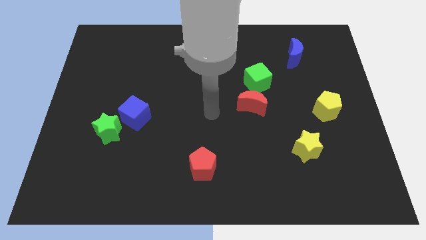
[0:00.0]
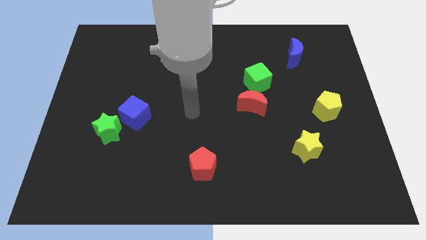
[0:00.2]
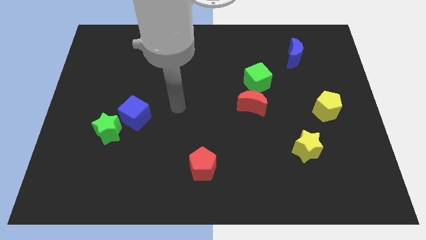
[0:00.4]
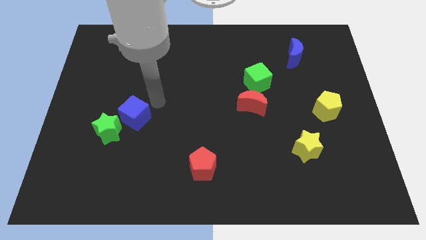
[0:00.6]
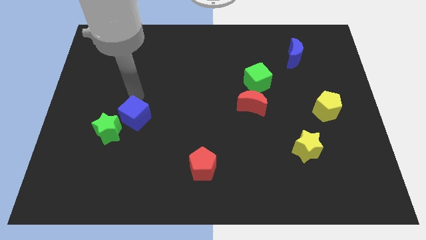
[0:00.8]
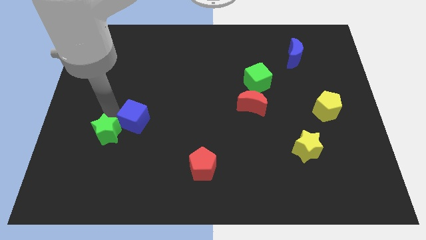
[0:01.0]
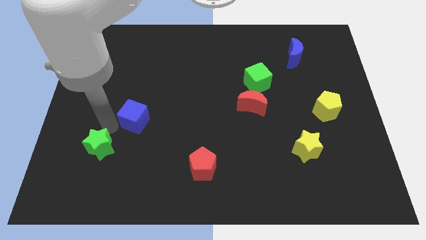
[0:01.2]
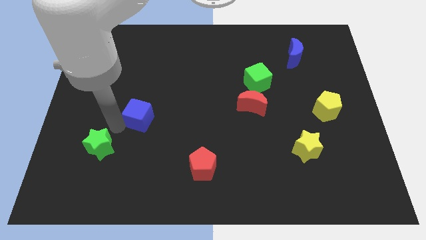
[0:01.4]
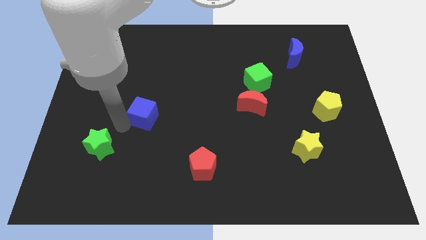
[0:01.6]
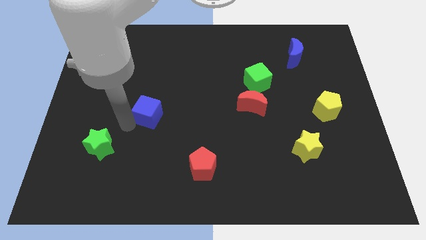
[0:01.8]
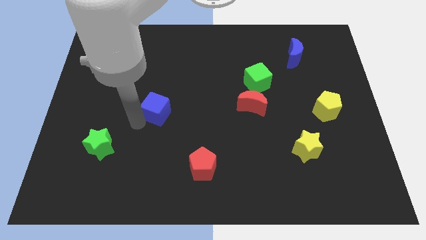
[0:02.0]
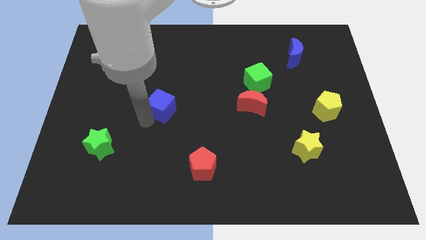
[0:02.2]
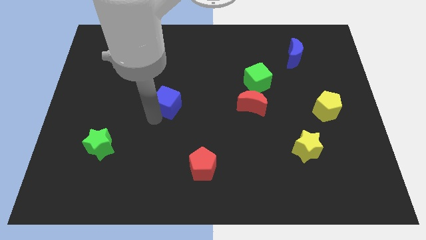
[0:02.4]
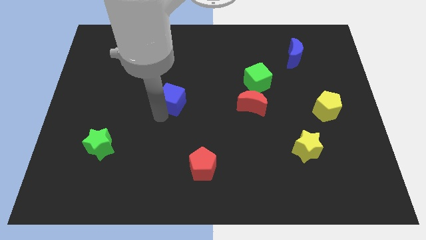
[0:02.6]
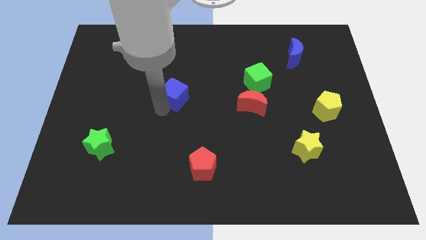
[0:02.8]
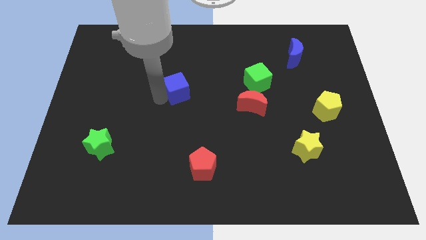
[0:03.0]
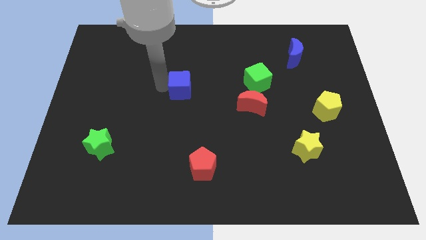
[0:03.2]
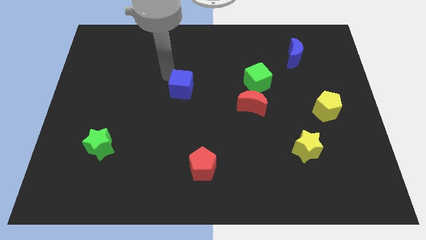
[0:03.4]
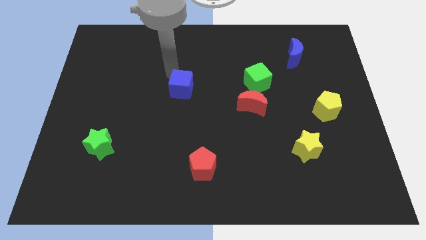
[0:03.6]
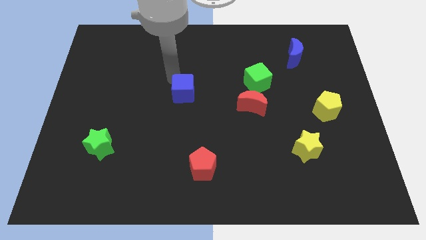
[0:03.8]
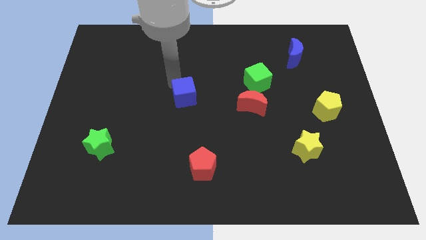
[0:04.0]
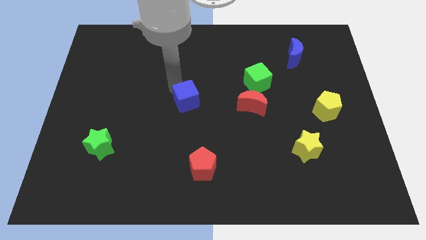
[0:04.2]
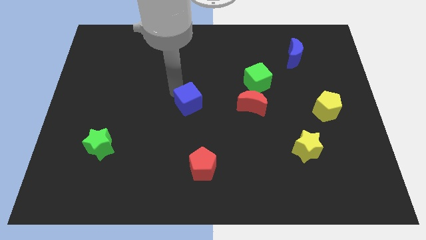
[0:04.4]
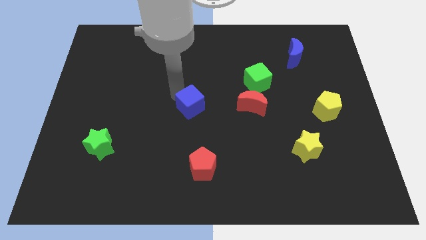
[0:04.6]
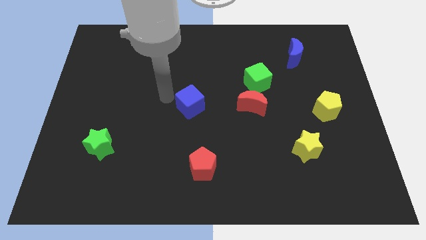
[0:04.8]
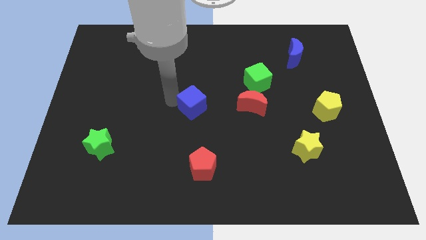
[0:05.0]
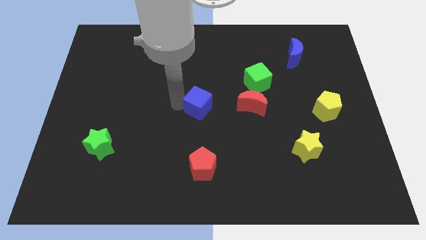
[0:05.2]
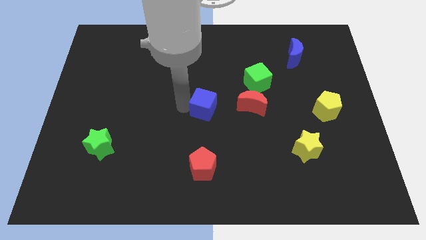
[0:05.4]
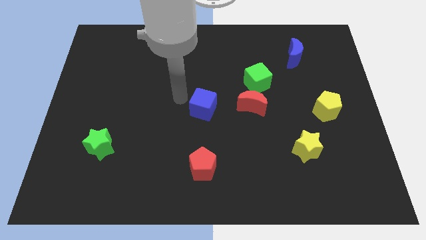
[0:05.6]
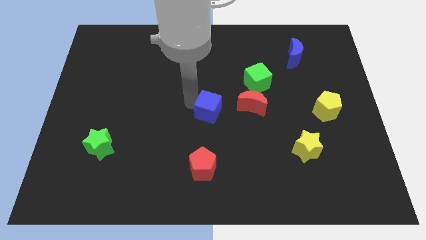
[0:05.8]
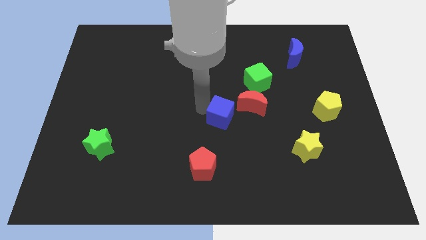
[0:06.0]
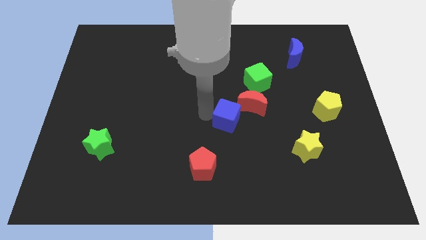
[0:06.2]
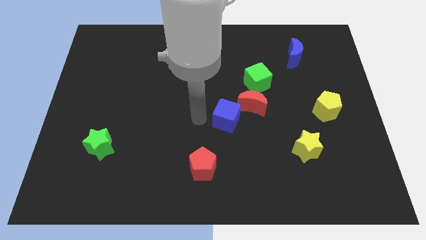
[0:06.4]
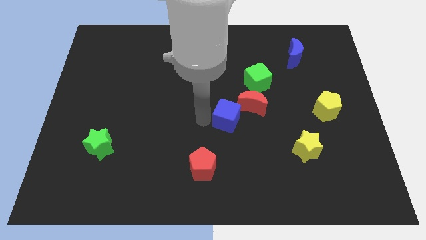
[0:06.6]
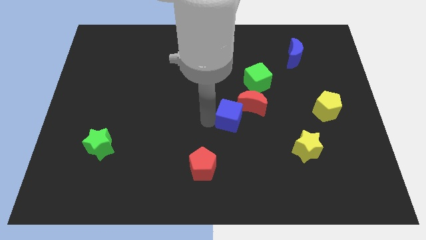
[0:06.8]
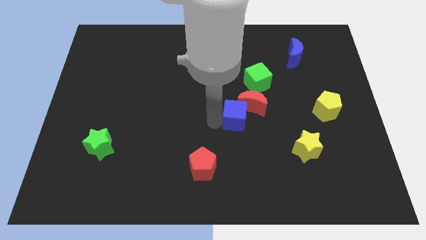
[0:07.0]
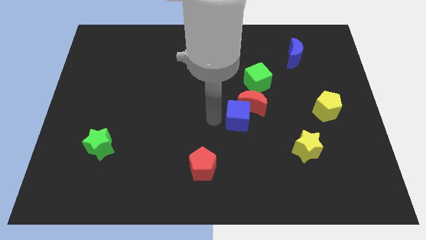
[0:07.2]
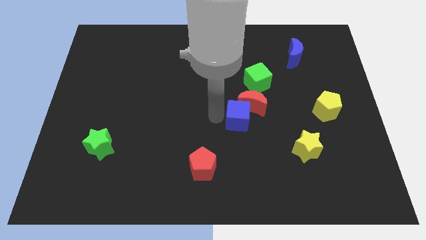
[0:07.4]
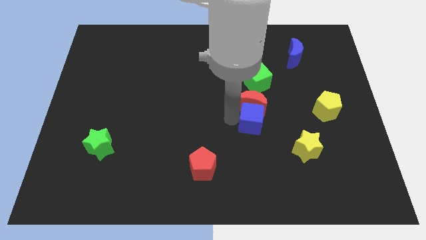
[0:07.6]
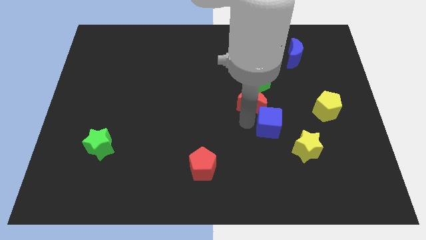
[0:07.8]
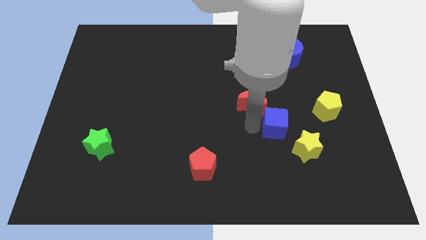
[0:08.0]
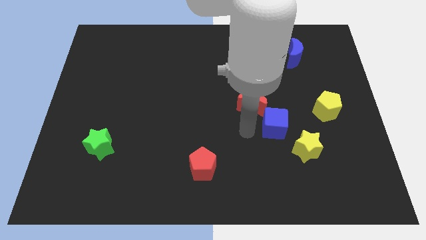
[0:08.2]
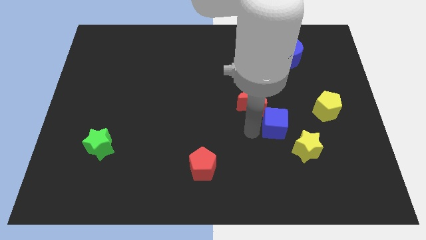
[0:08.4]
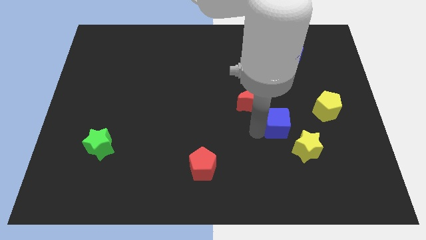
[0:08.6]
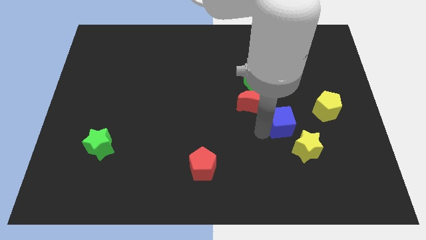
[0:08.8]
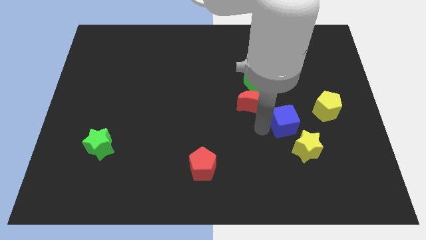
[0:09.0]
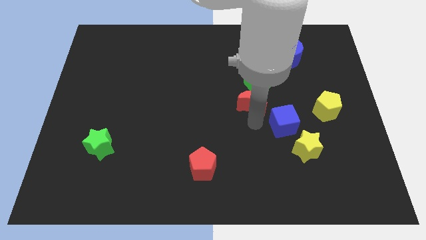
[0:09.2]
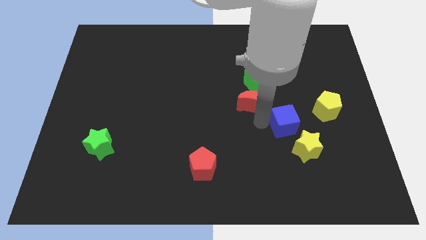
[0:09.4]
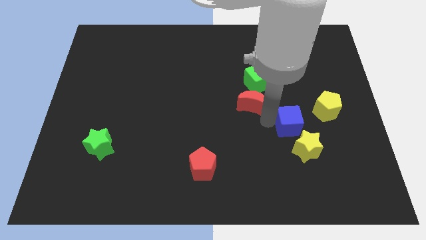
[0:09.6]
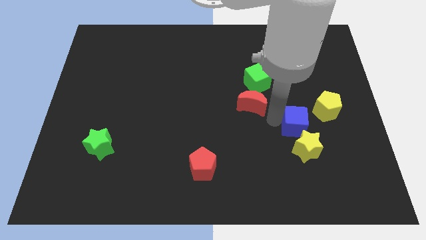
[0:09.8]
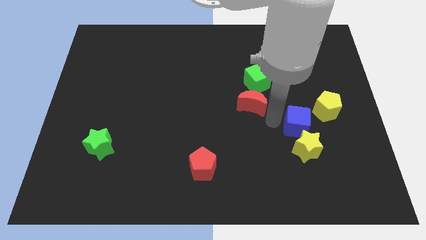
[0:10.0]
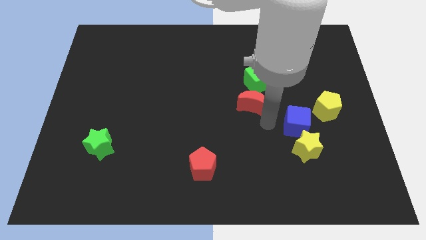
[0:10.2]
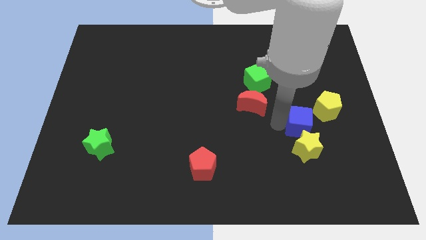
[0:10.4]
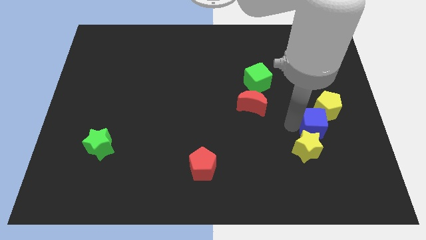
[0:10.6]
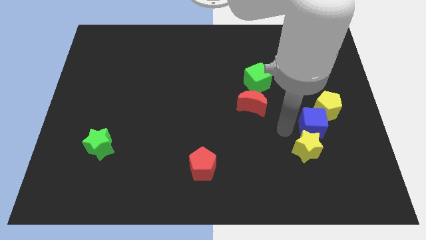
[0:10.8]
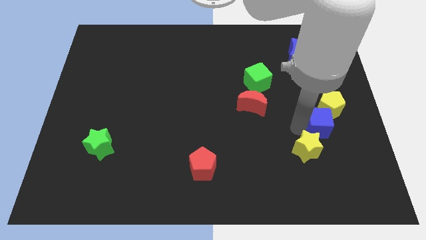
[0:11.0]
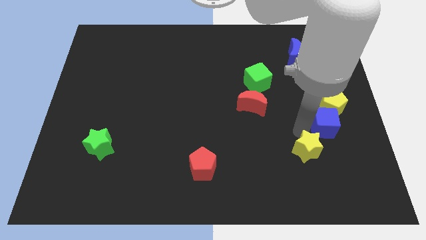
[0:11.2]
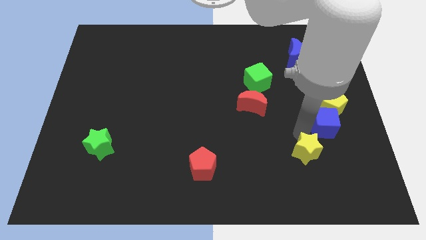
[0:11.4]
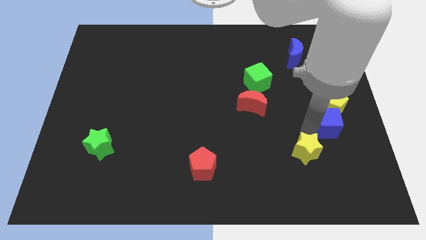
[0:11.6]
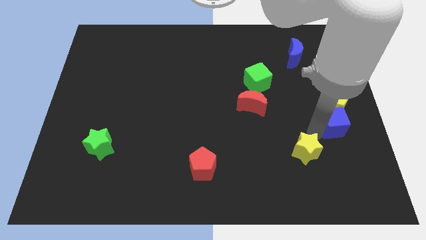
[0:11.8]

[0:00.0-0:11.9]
put the blue cube to the right side
